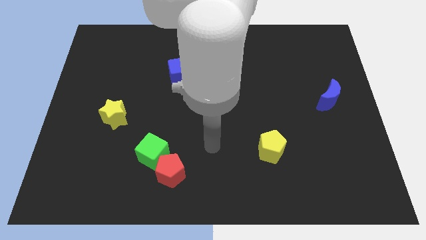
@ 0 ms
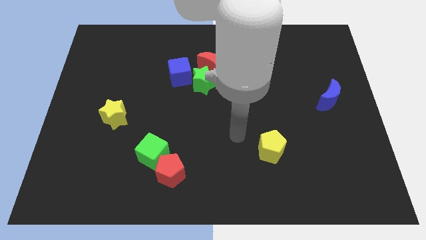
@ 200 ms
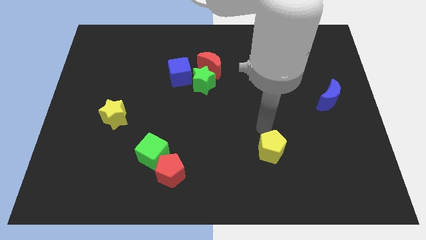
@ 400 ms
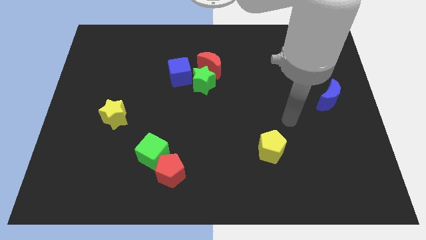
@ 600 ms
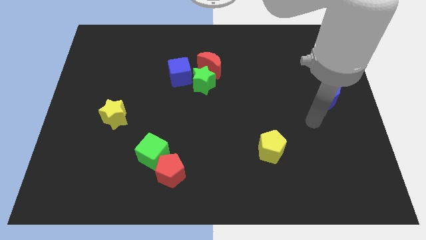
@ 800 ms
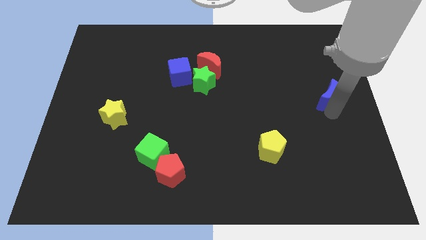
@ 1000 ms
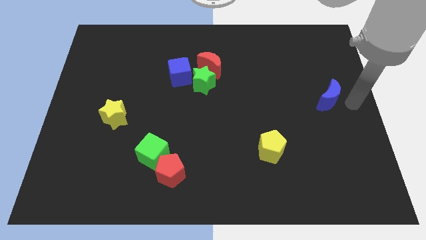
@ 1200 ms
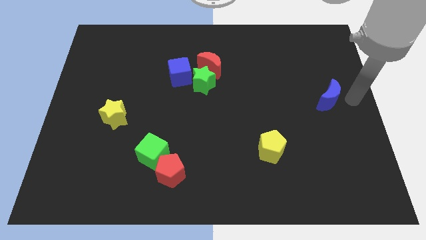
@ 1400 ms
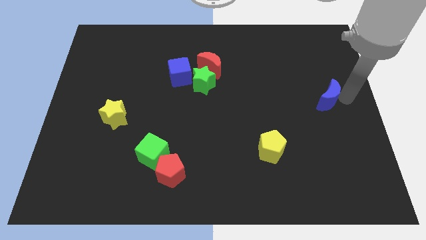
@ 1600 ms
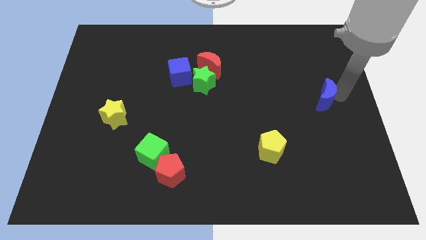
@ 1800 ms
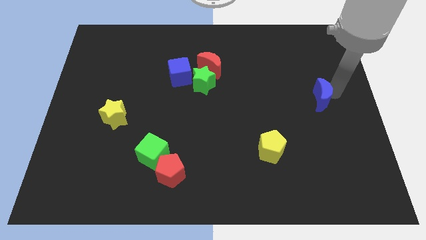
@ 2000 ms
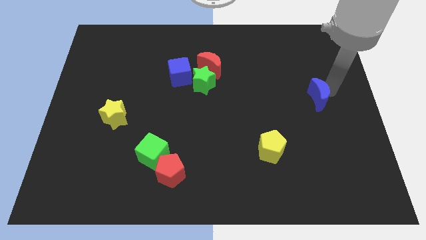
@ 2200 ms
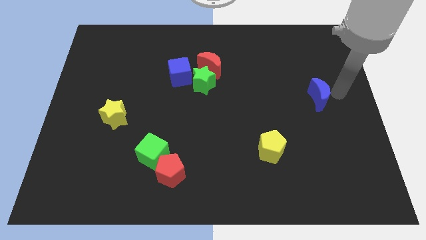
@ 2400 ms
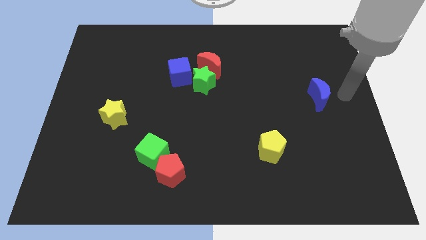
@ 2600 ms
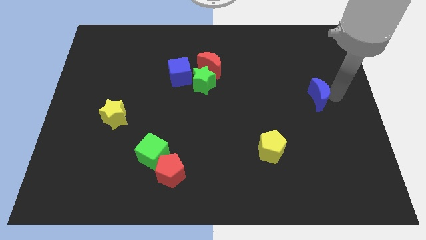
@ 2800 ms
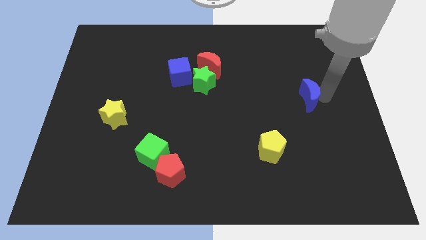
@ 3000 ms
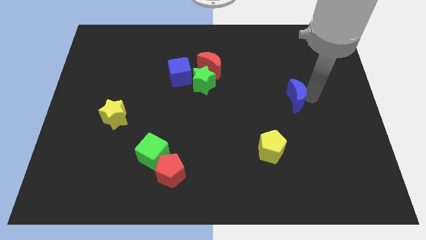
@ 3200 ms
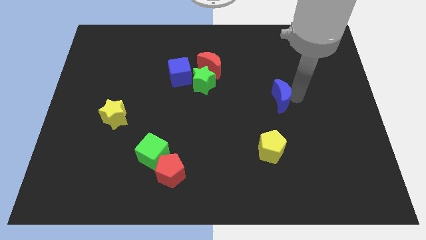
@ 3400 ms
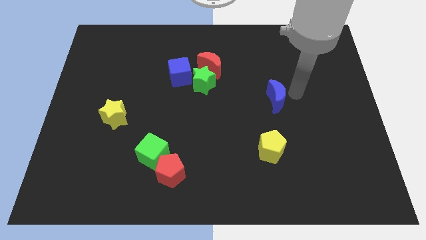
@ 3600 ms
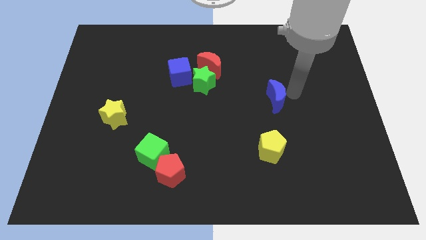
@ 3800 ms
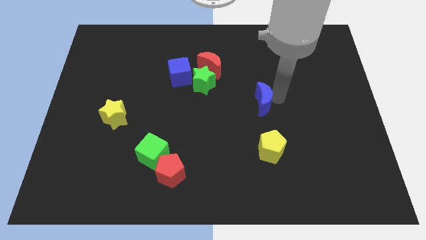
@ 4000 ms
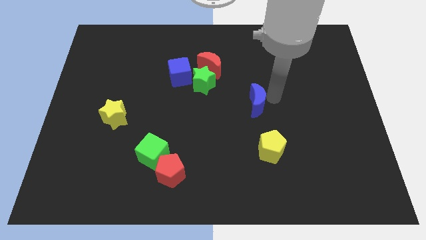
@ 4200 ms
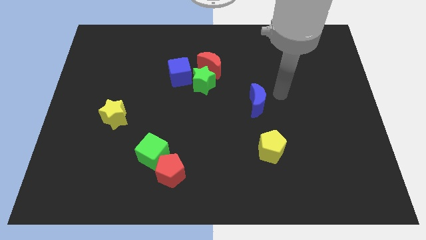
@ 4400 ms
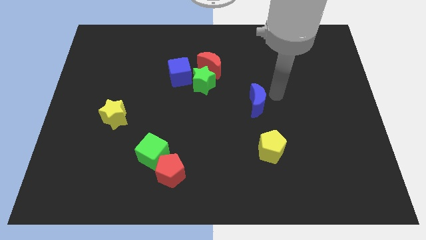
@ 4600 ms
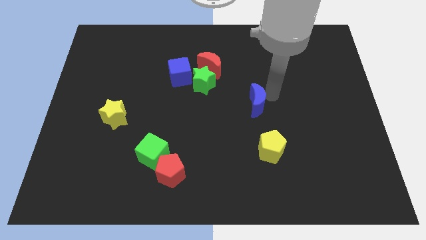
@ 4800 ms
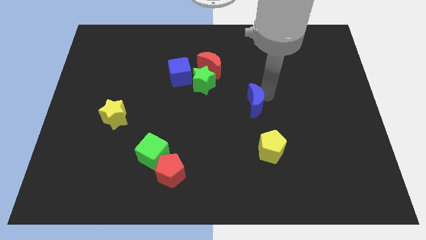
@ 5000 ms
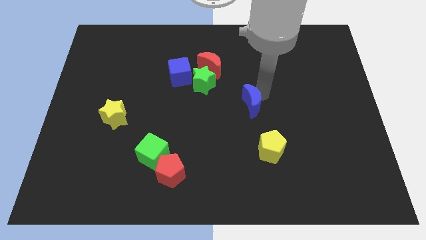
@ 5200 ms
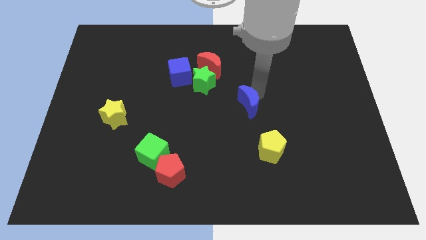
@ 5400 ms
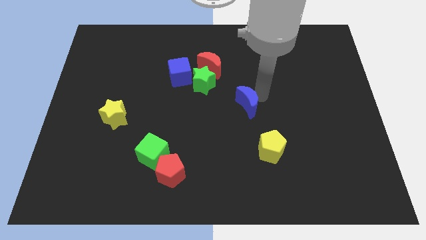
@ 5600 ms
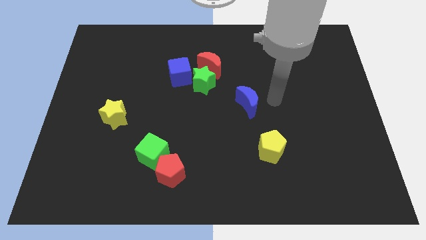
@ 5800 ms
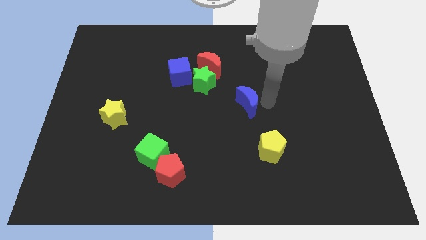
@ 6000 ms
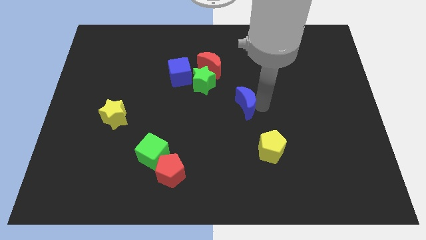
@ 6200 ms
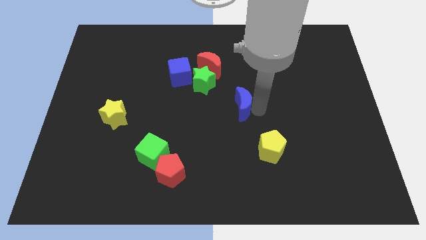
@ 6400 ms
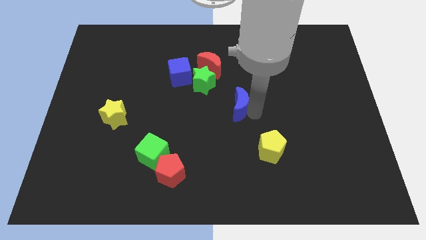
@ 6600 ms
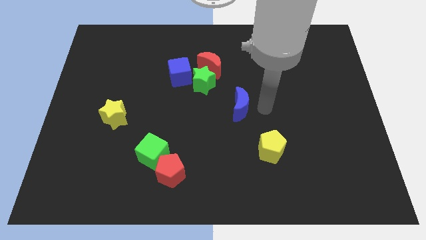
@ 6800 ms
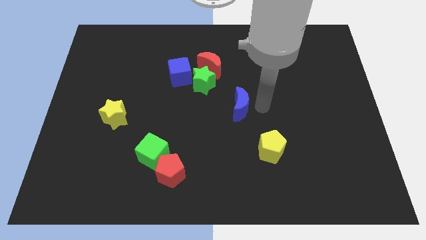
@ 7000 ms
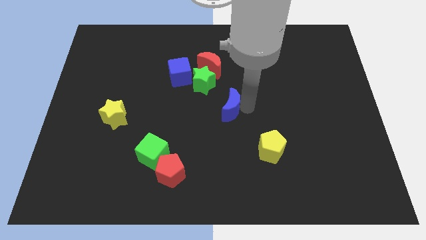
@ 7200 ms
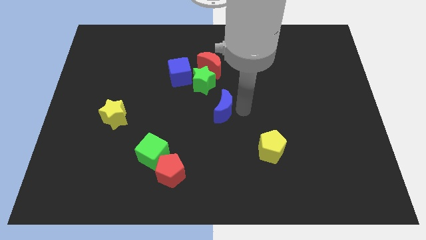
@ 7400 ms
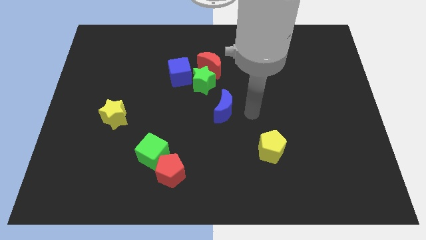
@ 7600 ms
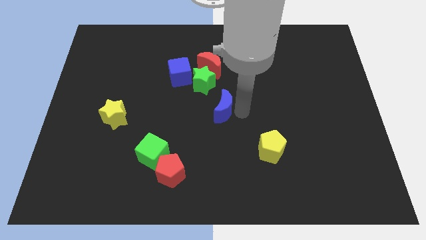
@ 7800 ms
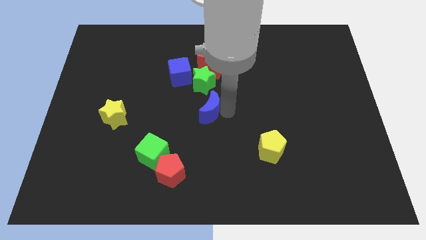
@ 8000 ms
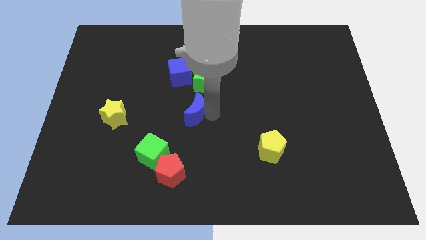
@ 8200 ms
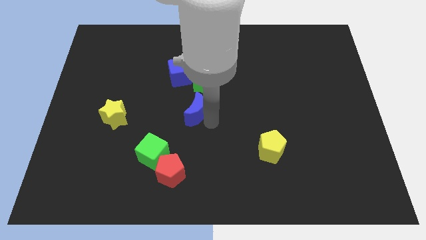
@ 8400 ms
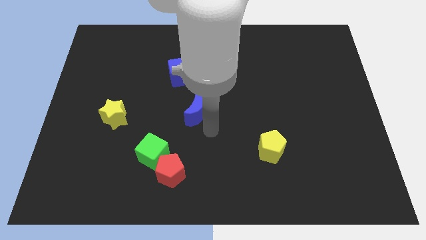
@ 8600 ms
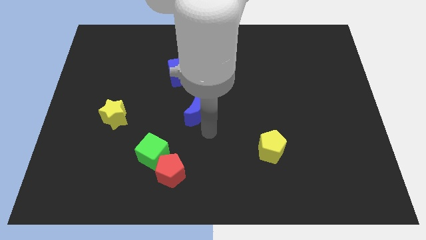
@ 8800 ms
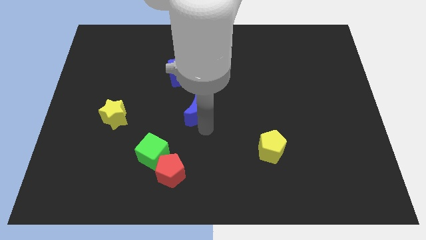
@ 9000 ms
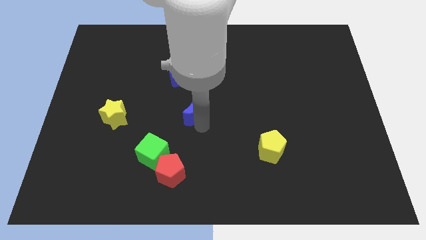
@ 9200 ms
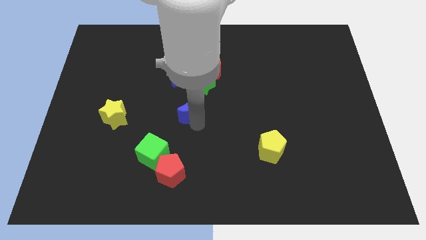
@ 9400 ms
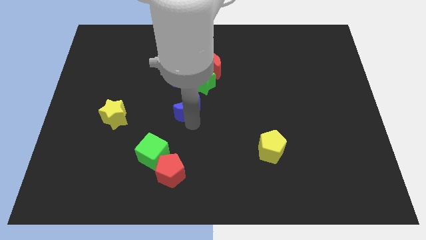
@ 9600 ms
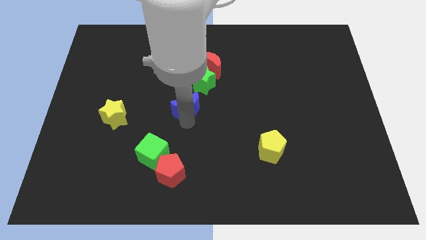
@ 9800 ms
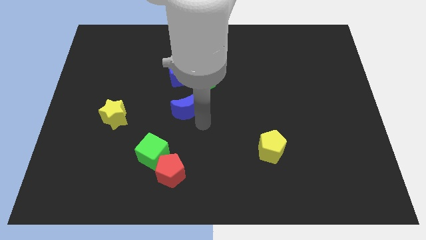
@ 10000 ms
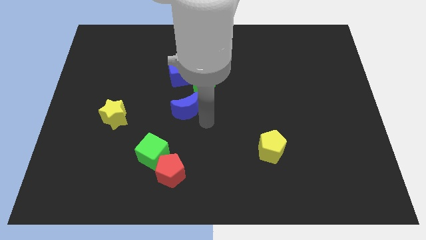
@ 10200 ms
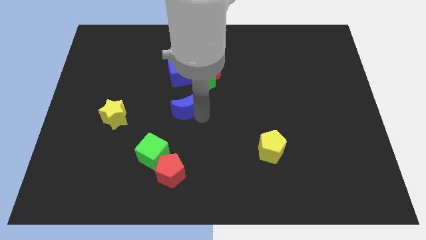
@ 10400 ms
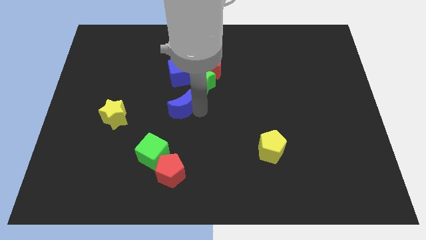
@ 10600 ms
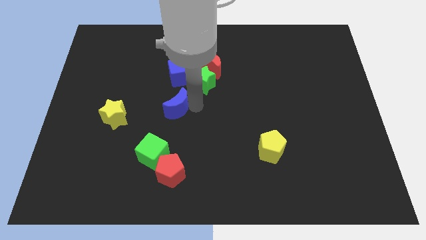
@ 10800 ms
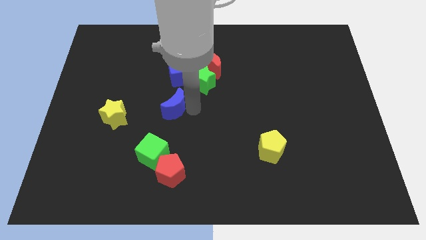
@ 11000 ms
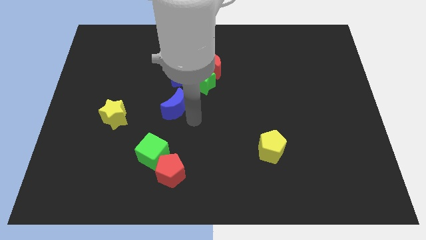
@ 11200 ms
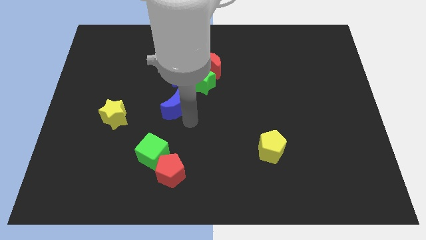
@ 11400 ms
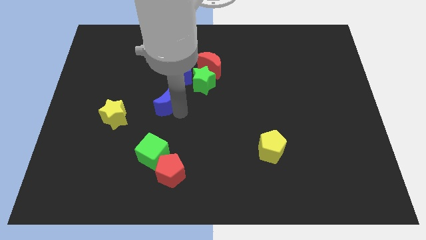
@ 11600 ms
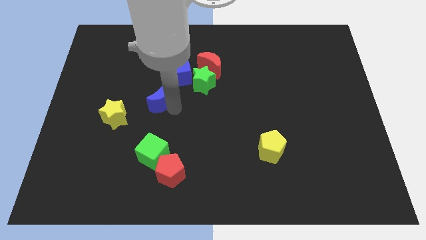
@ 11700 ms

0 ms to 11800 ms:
put the blue moon to the bottom left side of the blue cube

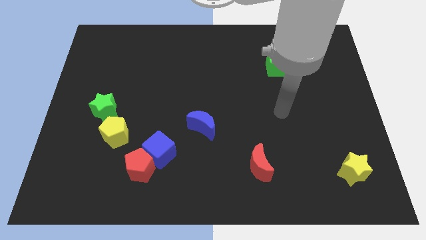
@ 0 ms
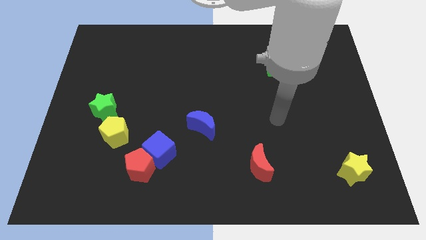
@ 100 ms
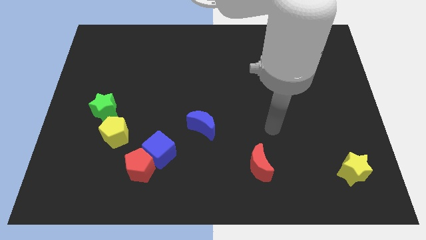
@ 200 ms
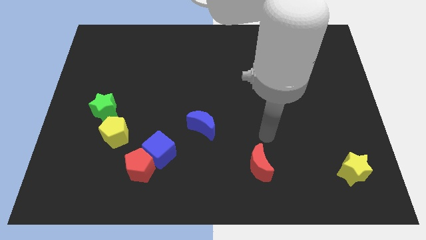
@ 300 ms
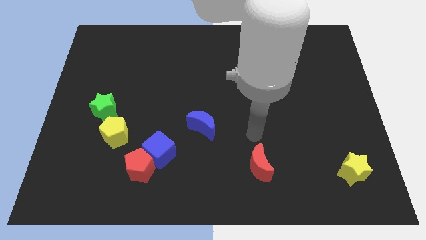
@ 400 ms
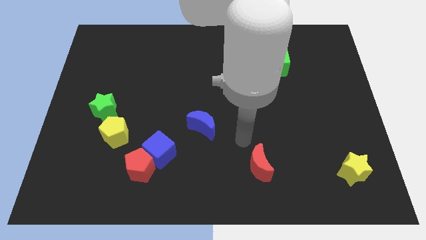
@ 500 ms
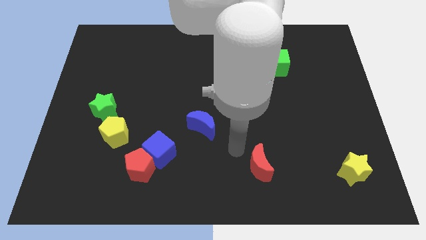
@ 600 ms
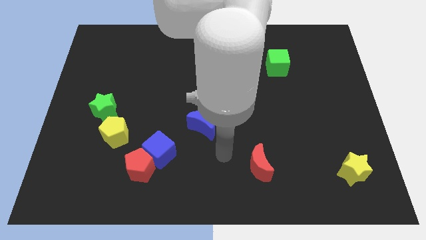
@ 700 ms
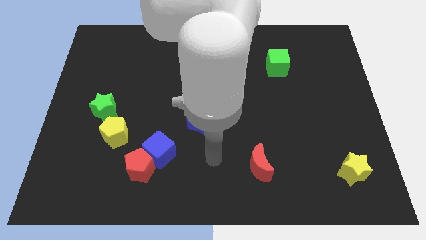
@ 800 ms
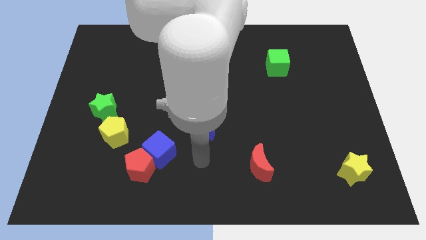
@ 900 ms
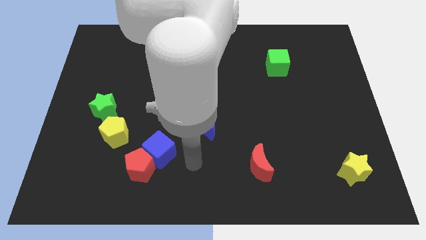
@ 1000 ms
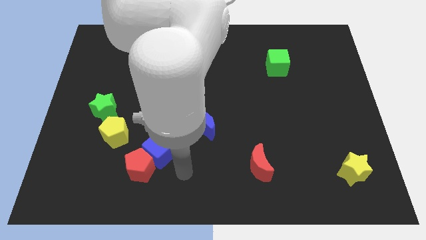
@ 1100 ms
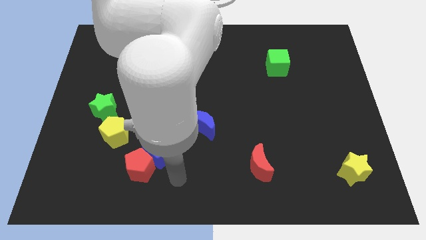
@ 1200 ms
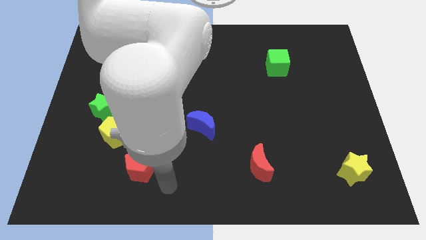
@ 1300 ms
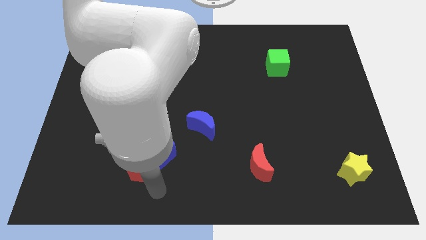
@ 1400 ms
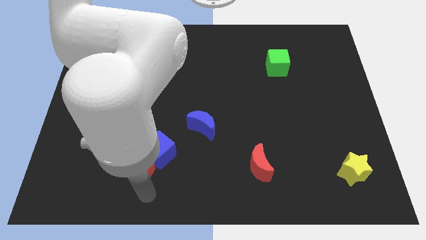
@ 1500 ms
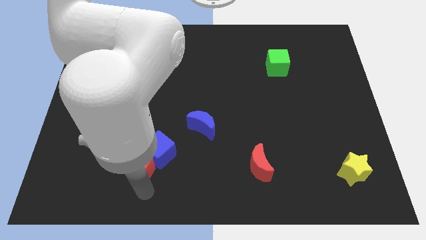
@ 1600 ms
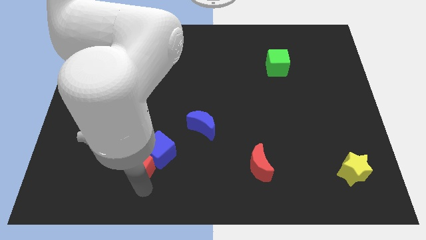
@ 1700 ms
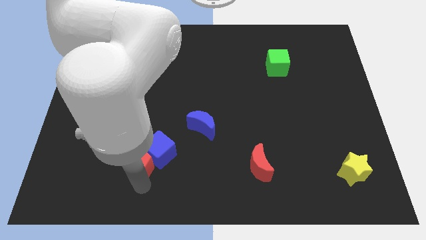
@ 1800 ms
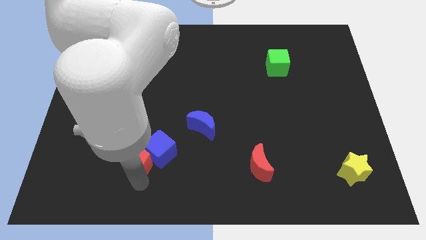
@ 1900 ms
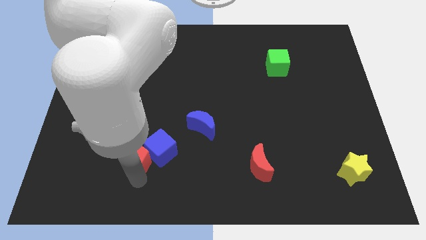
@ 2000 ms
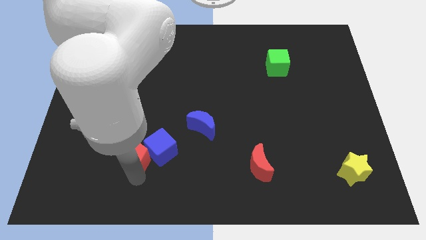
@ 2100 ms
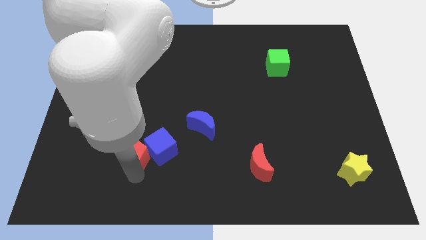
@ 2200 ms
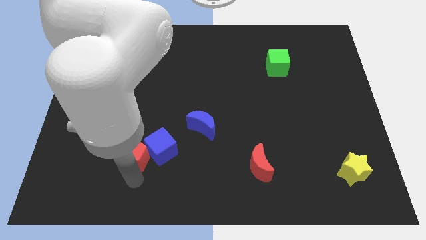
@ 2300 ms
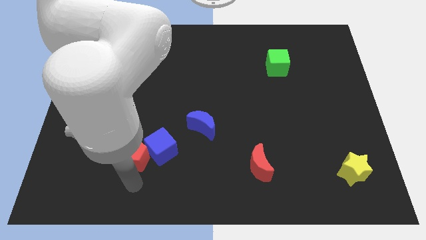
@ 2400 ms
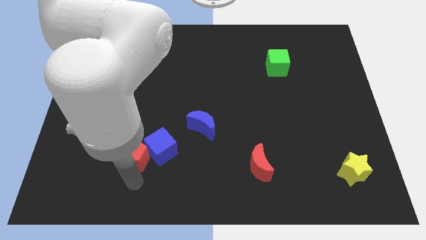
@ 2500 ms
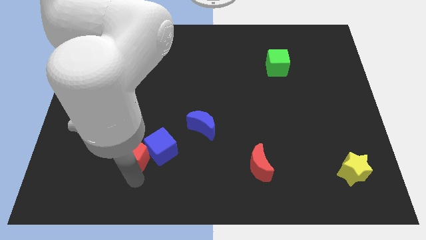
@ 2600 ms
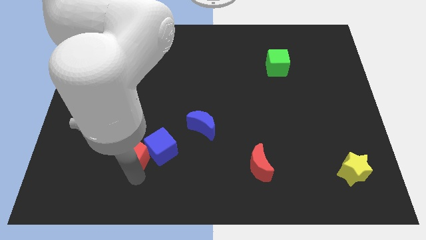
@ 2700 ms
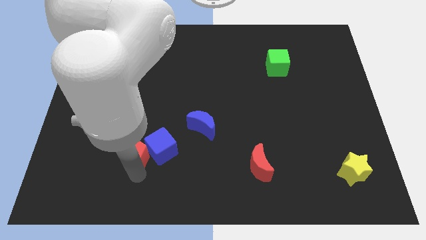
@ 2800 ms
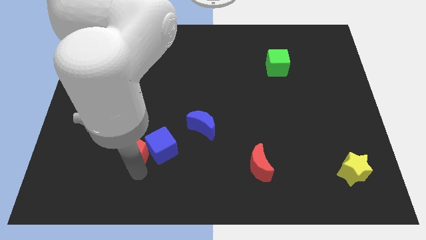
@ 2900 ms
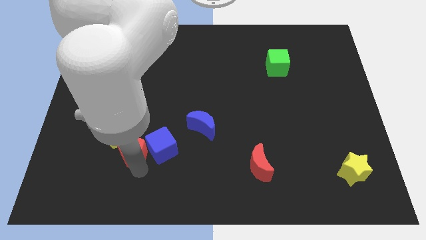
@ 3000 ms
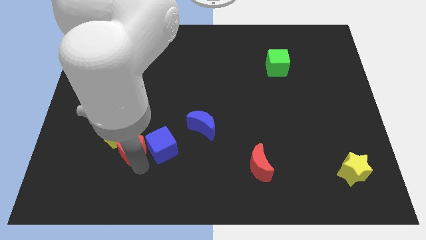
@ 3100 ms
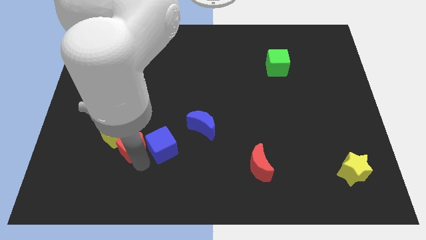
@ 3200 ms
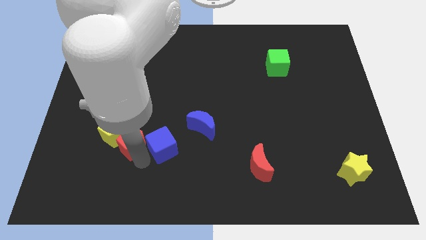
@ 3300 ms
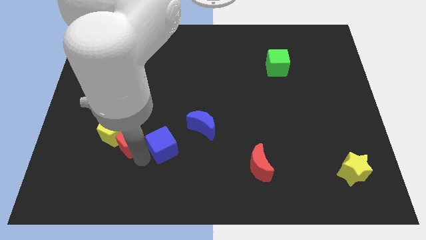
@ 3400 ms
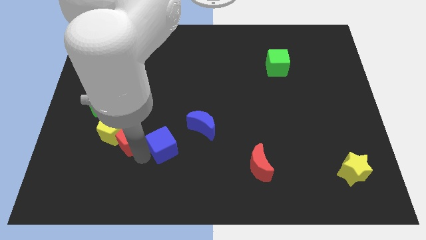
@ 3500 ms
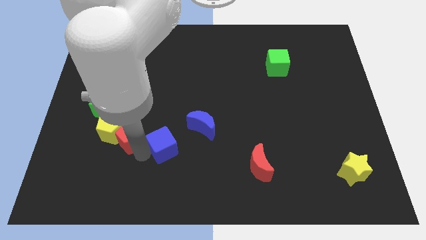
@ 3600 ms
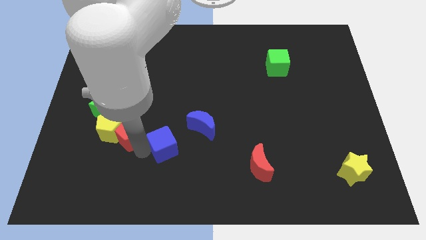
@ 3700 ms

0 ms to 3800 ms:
put the red pentagon to the top right side of the yellow pentagon
